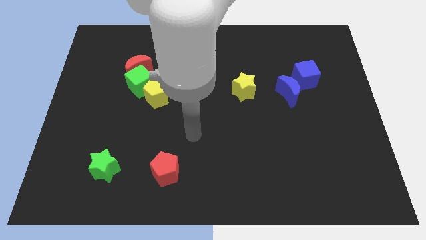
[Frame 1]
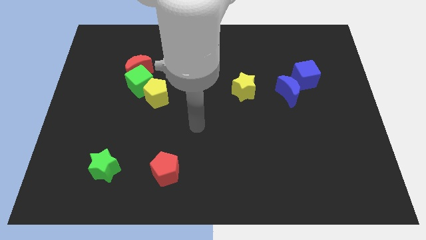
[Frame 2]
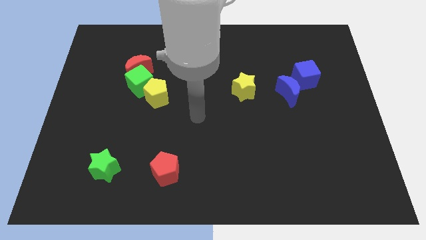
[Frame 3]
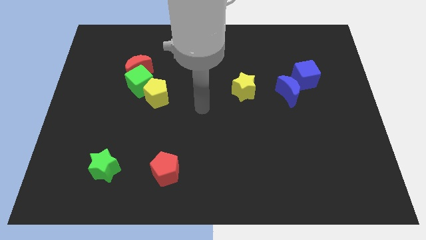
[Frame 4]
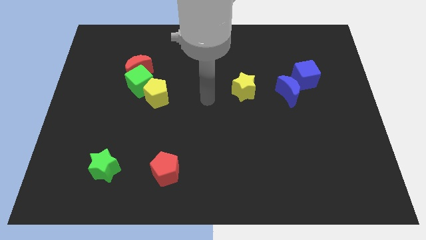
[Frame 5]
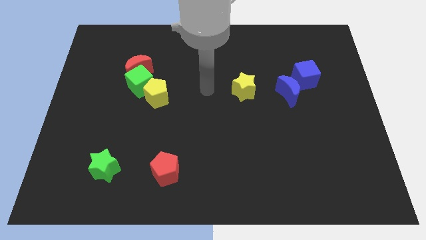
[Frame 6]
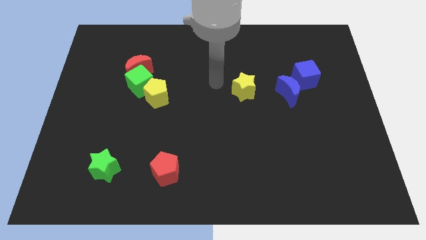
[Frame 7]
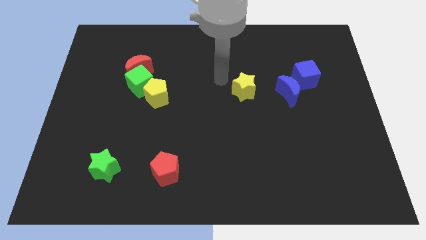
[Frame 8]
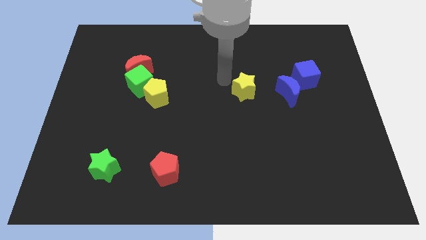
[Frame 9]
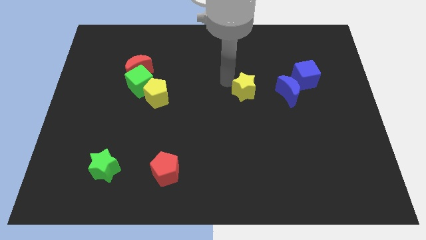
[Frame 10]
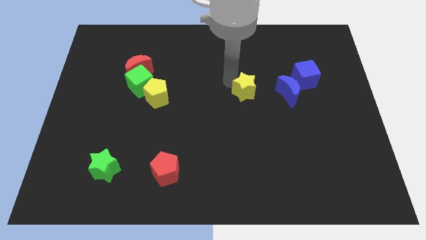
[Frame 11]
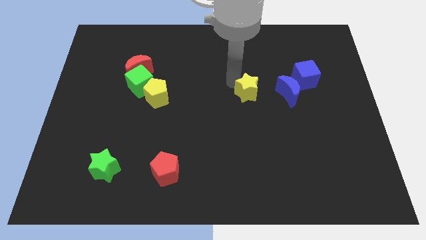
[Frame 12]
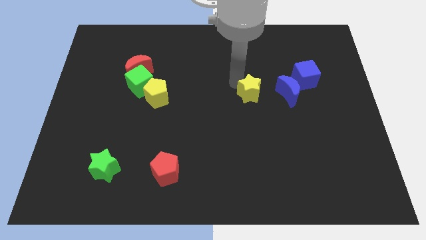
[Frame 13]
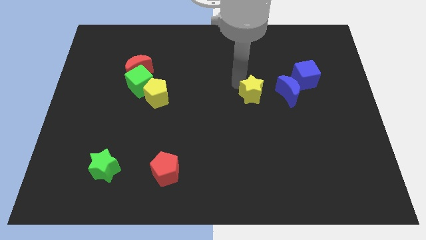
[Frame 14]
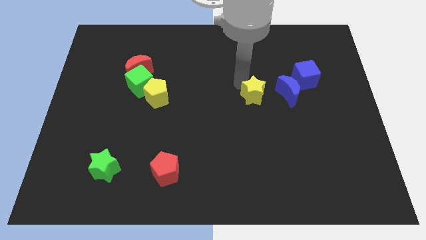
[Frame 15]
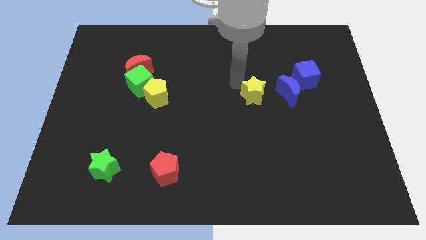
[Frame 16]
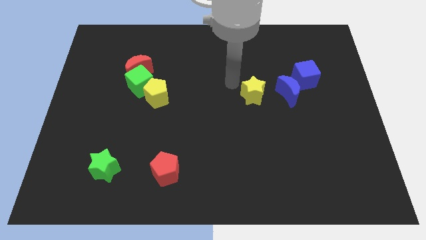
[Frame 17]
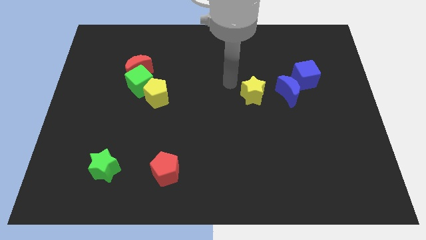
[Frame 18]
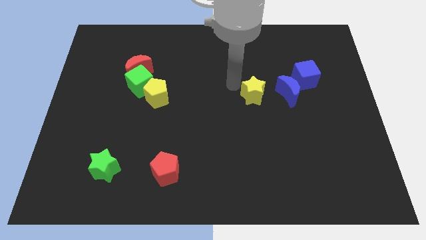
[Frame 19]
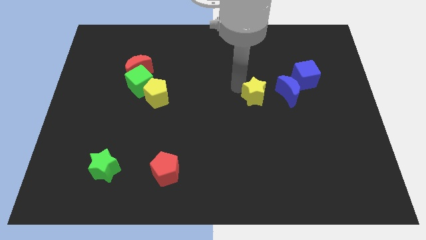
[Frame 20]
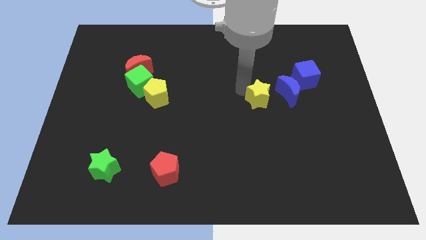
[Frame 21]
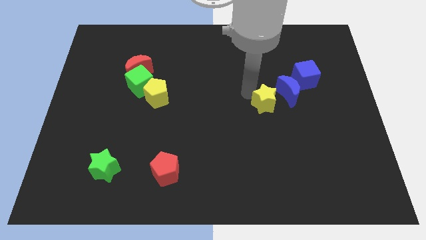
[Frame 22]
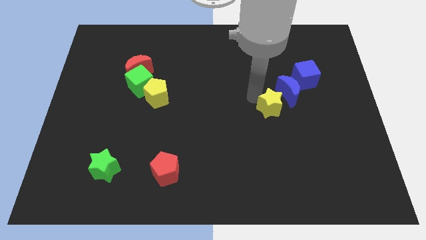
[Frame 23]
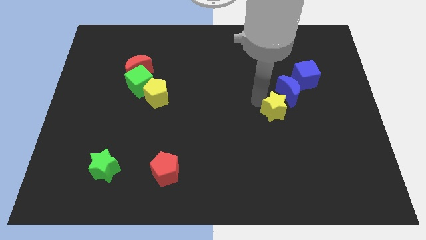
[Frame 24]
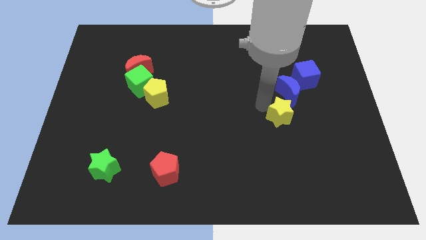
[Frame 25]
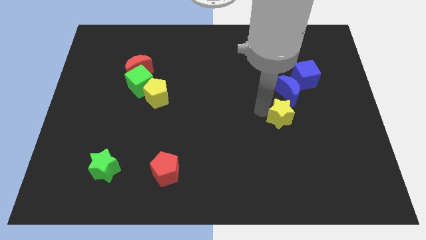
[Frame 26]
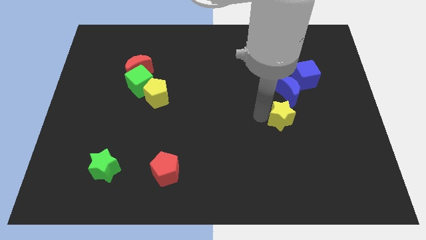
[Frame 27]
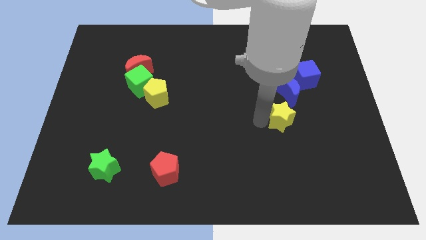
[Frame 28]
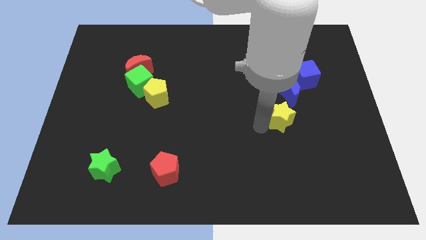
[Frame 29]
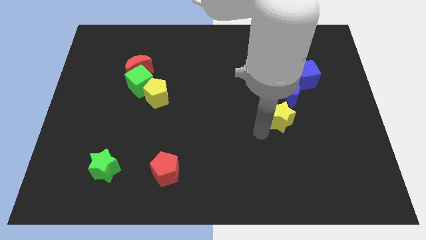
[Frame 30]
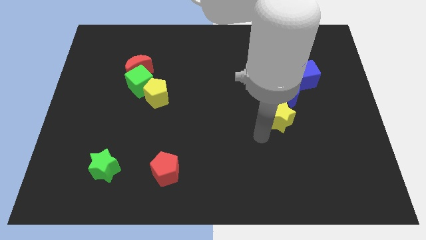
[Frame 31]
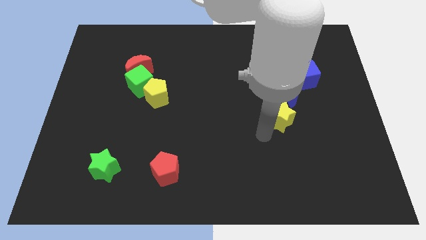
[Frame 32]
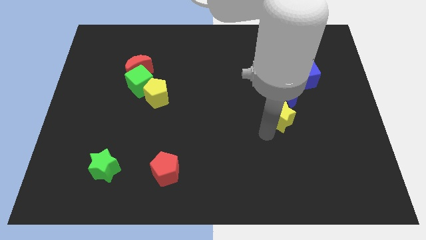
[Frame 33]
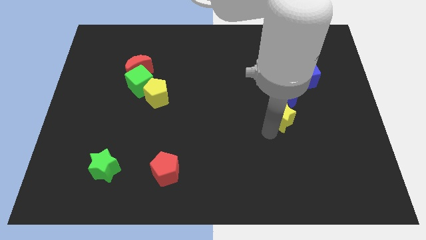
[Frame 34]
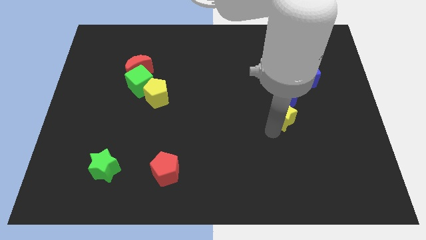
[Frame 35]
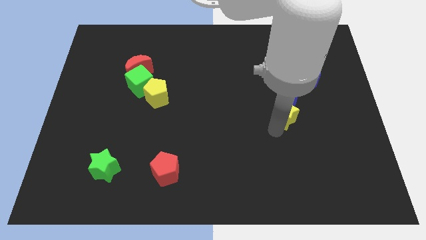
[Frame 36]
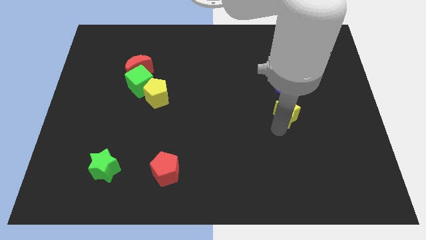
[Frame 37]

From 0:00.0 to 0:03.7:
push the yellow star a bit right

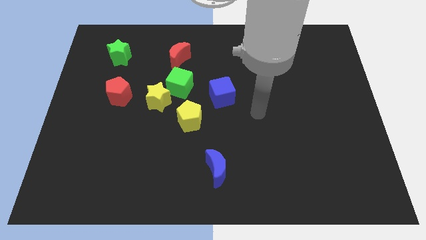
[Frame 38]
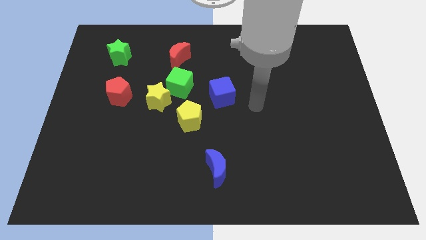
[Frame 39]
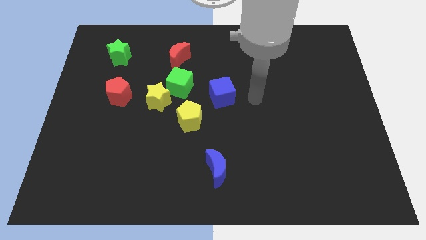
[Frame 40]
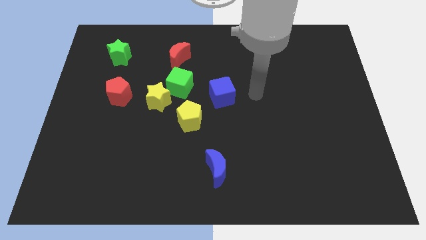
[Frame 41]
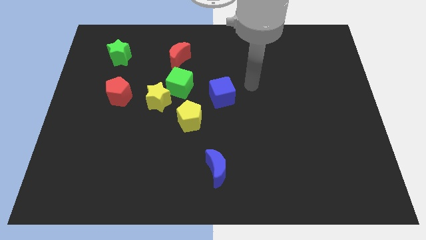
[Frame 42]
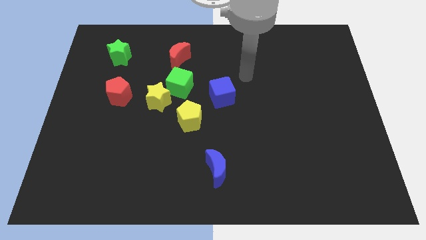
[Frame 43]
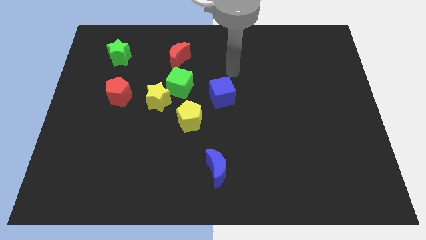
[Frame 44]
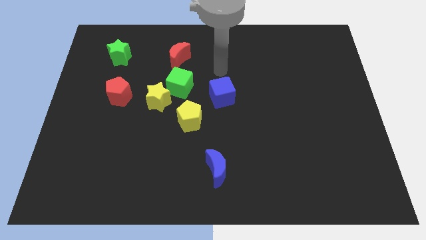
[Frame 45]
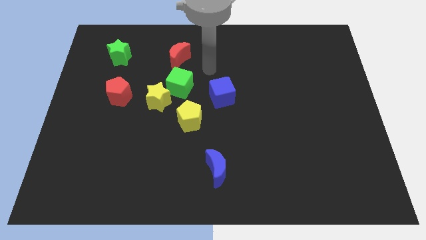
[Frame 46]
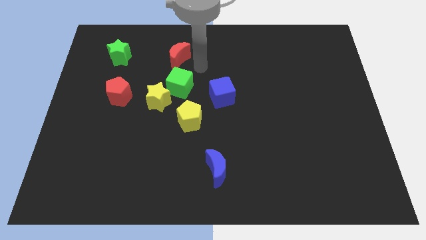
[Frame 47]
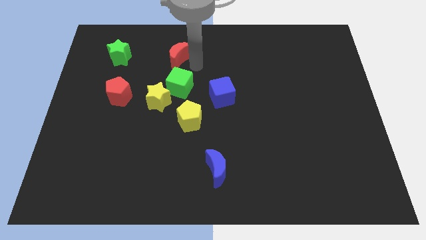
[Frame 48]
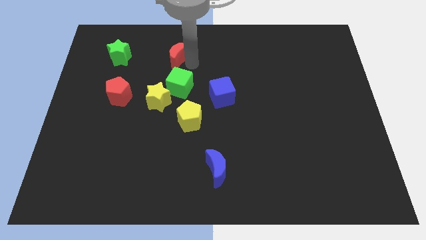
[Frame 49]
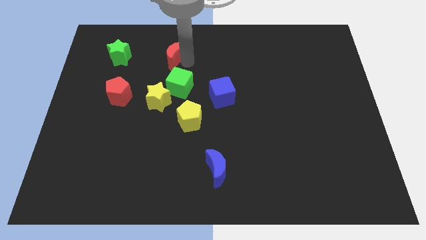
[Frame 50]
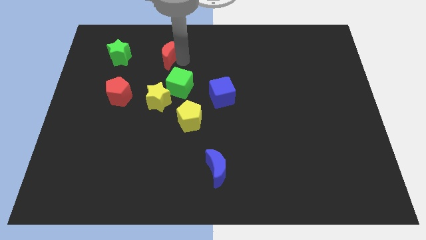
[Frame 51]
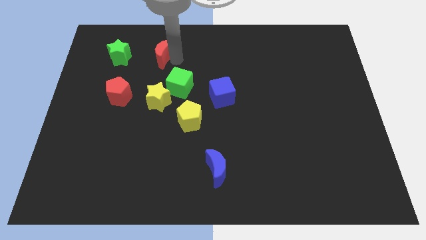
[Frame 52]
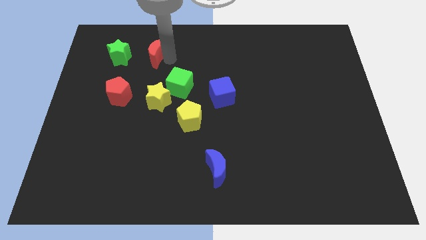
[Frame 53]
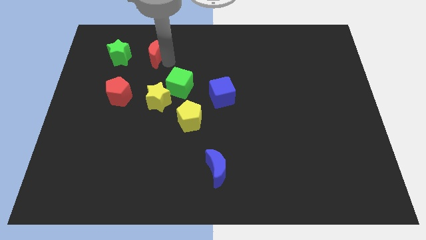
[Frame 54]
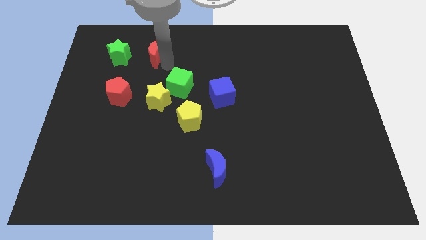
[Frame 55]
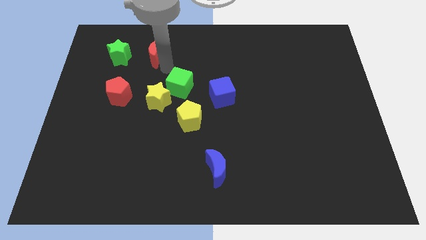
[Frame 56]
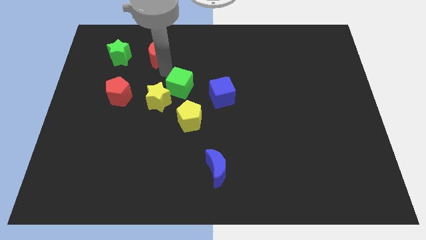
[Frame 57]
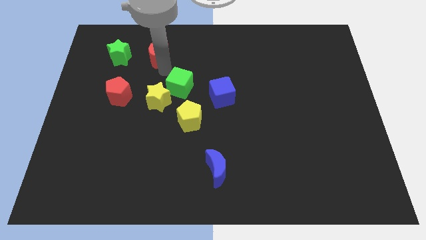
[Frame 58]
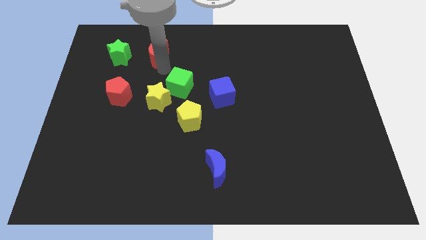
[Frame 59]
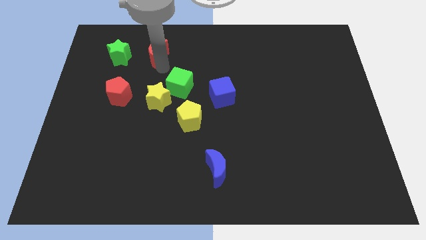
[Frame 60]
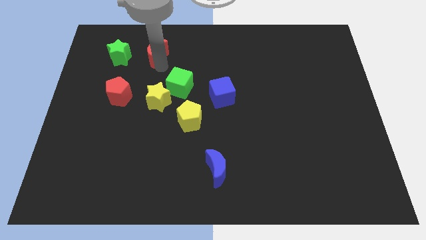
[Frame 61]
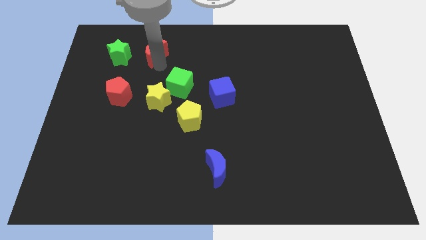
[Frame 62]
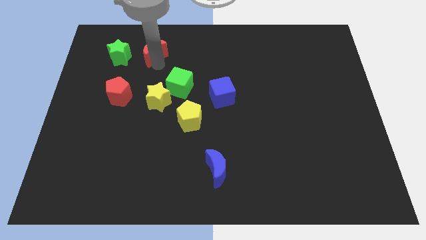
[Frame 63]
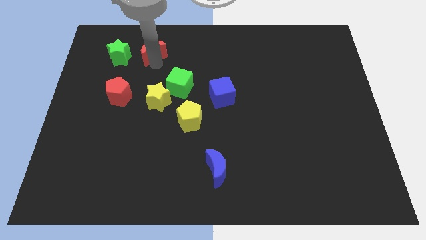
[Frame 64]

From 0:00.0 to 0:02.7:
slide the red moon a little bit to the left

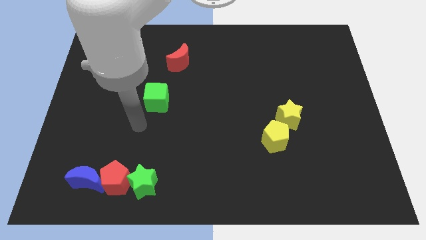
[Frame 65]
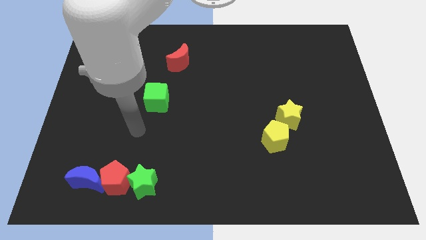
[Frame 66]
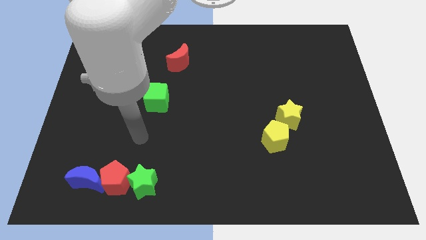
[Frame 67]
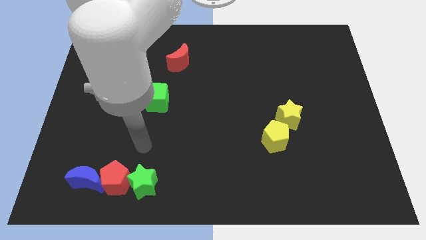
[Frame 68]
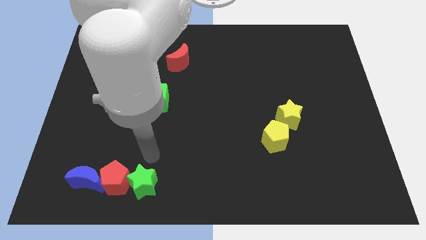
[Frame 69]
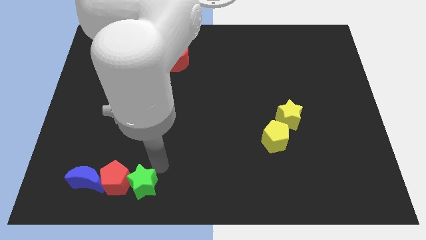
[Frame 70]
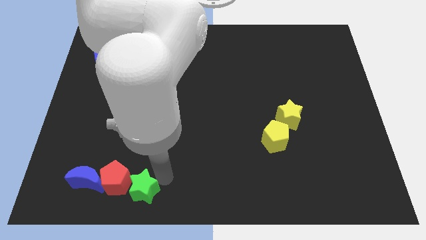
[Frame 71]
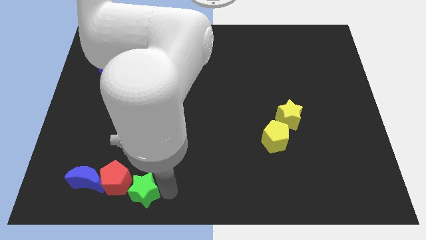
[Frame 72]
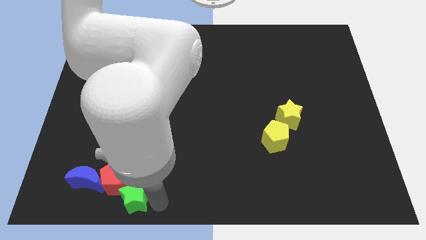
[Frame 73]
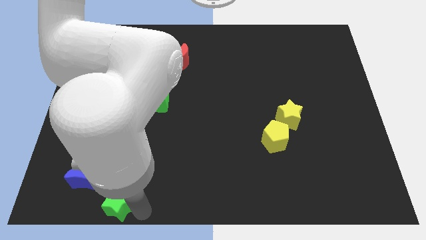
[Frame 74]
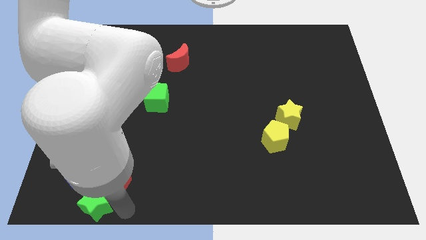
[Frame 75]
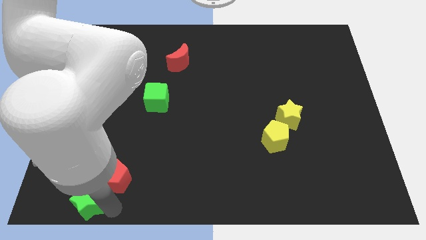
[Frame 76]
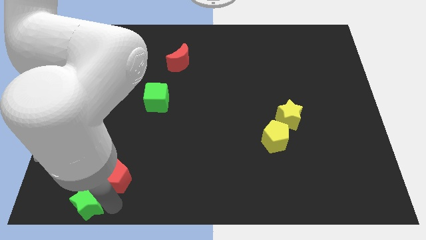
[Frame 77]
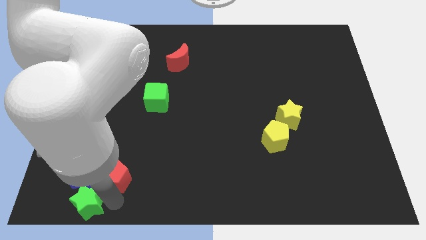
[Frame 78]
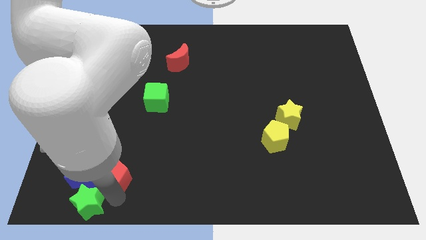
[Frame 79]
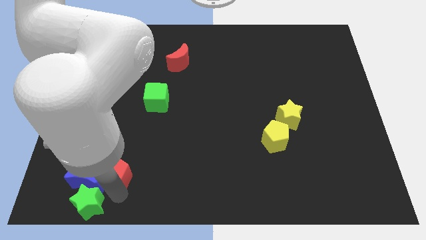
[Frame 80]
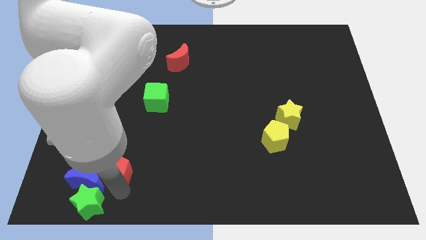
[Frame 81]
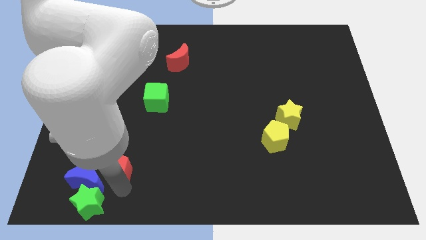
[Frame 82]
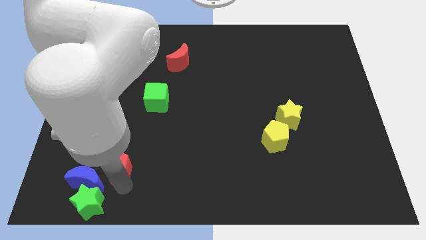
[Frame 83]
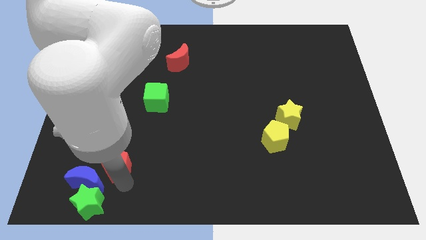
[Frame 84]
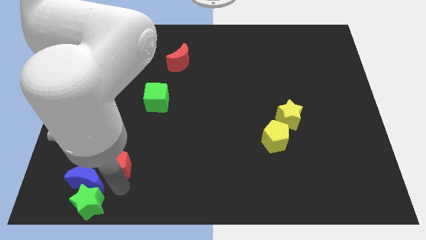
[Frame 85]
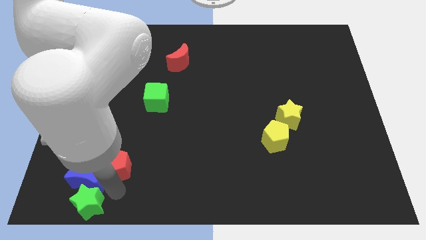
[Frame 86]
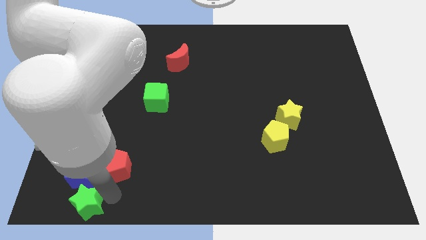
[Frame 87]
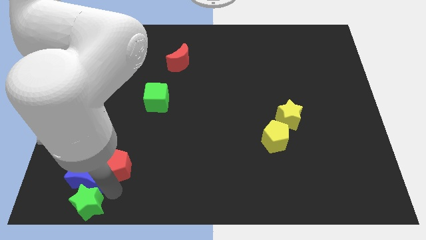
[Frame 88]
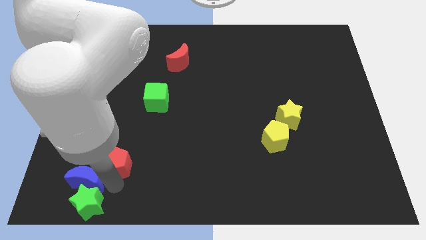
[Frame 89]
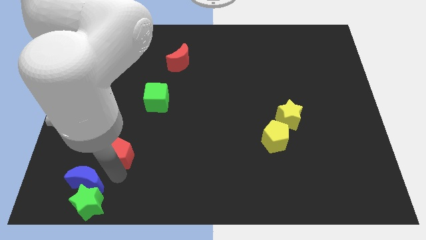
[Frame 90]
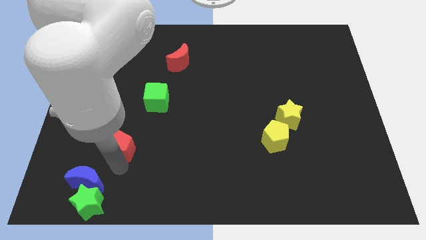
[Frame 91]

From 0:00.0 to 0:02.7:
push the red pentagon somewhat up
